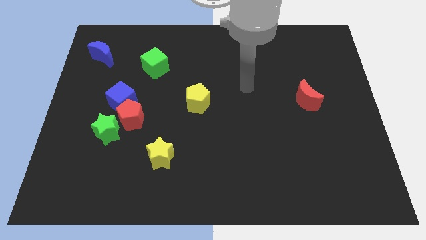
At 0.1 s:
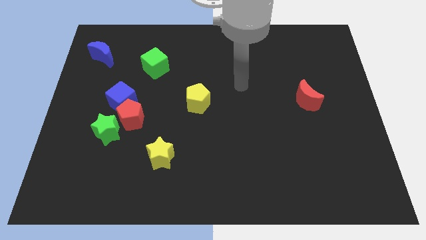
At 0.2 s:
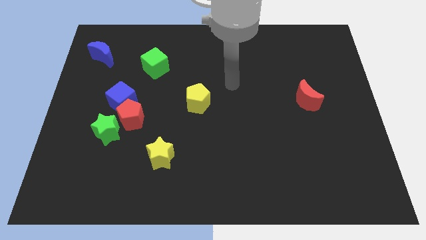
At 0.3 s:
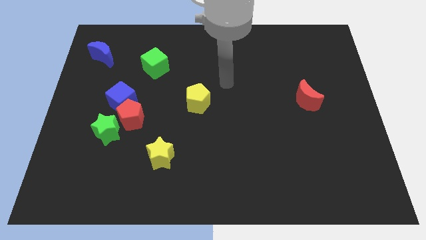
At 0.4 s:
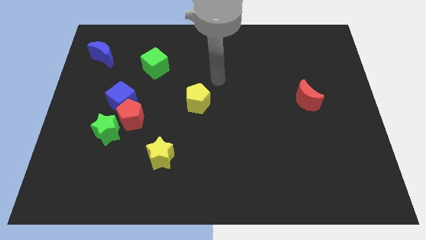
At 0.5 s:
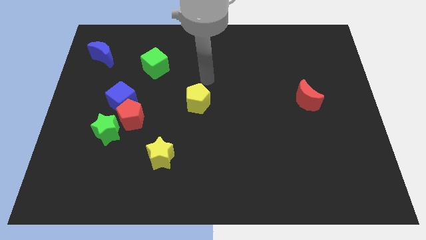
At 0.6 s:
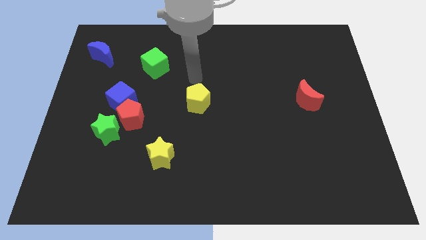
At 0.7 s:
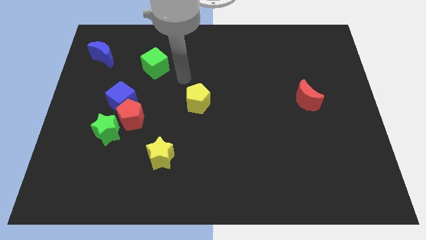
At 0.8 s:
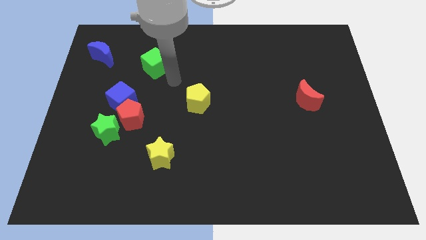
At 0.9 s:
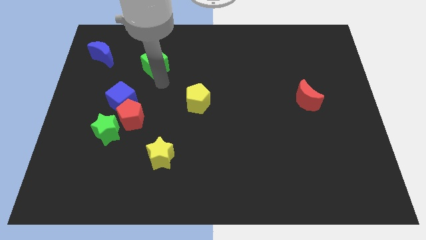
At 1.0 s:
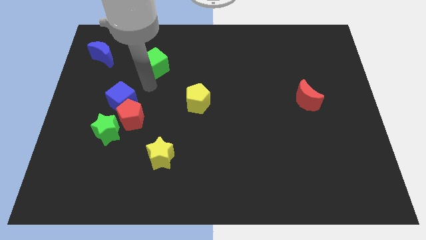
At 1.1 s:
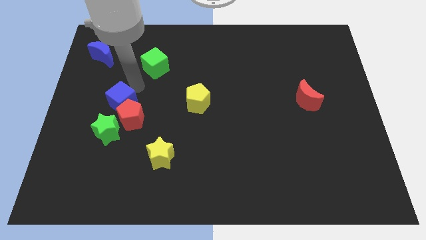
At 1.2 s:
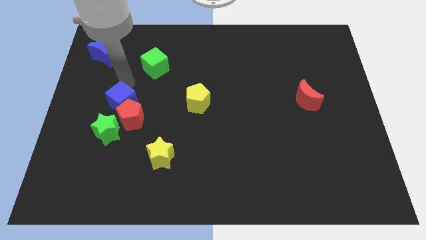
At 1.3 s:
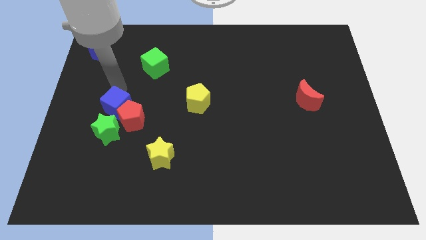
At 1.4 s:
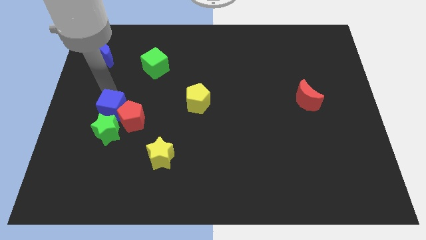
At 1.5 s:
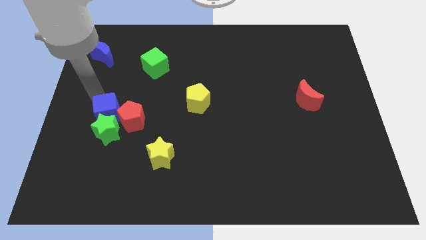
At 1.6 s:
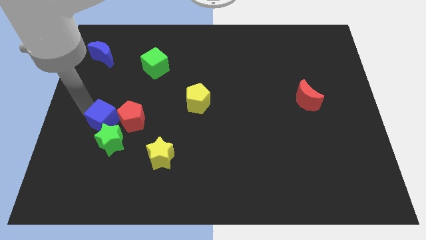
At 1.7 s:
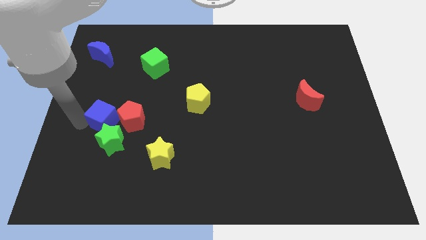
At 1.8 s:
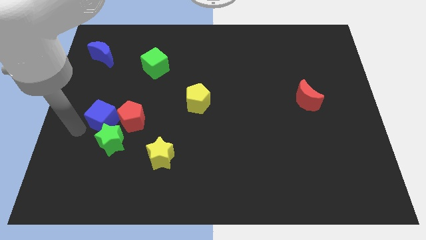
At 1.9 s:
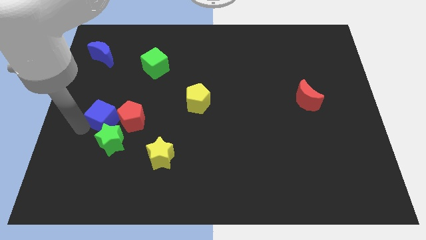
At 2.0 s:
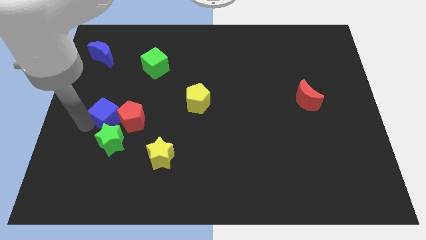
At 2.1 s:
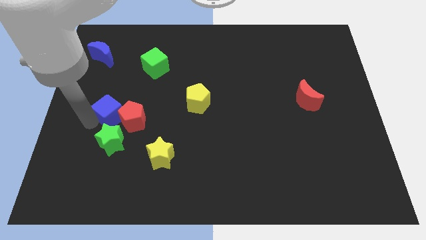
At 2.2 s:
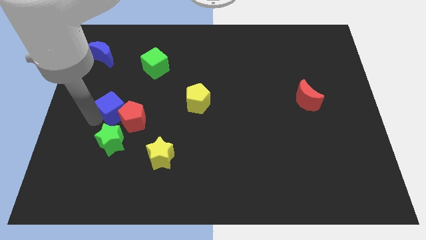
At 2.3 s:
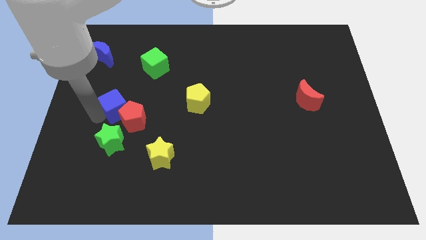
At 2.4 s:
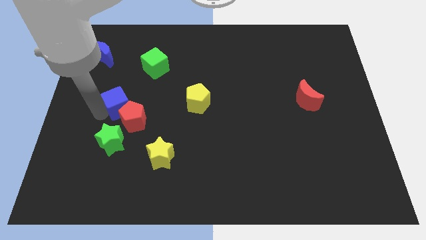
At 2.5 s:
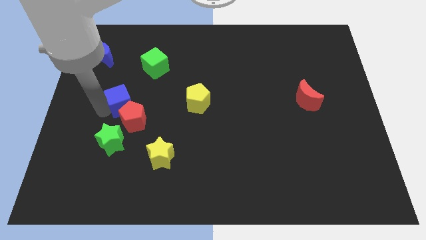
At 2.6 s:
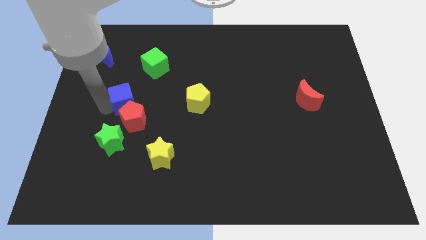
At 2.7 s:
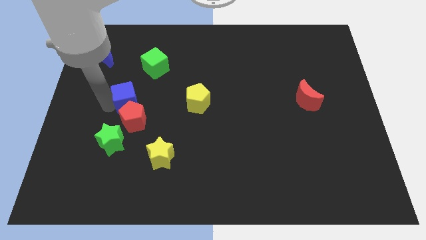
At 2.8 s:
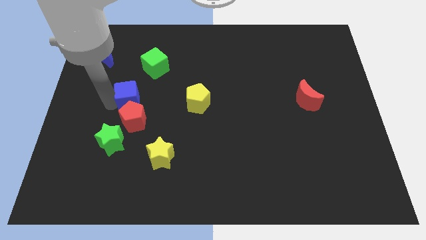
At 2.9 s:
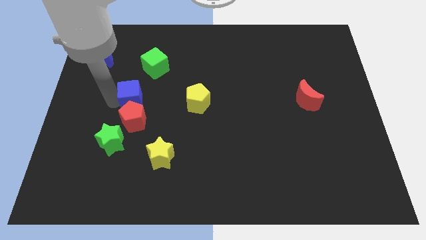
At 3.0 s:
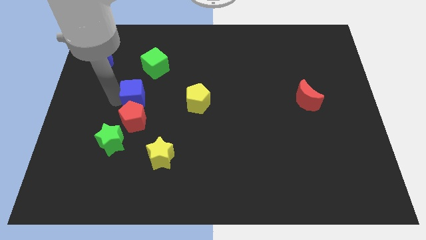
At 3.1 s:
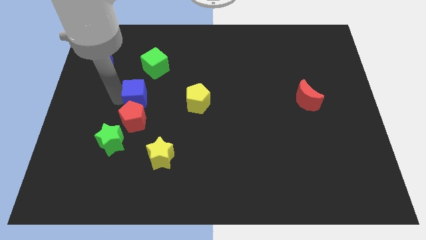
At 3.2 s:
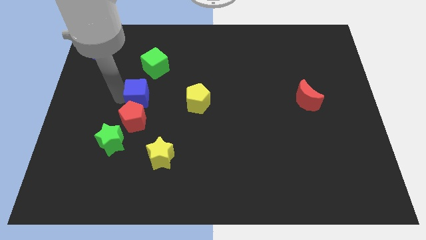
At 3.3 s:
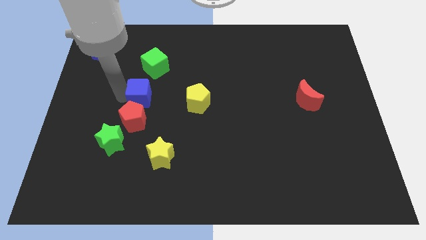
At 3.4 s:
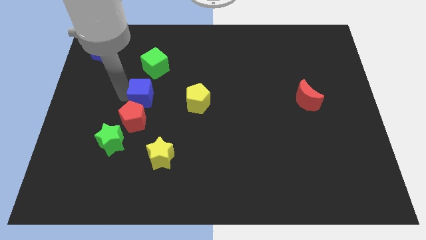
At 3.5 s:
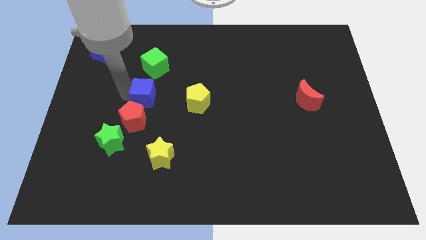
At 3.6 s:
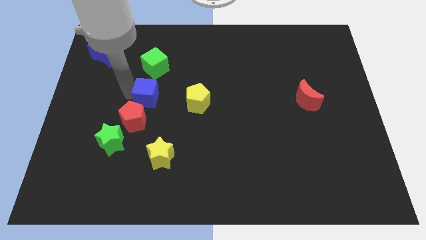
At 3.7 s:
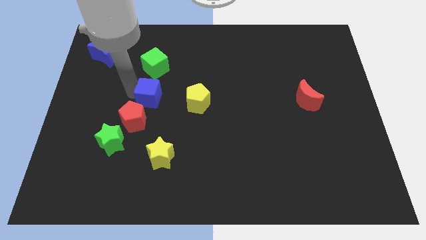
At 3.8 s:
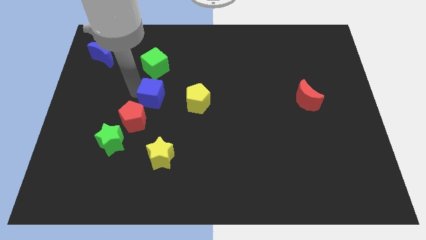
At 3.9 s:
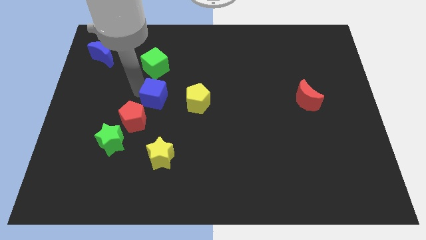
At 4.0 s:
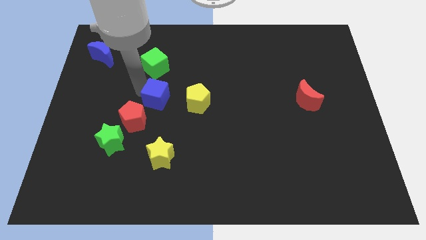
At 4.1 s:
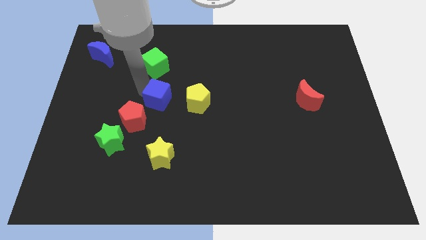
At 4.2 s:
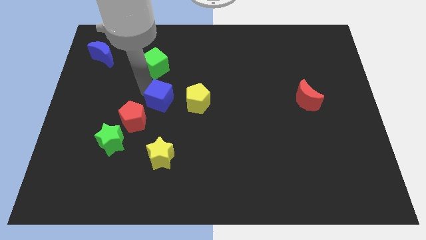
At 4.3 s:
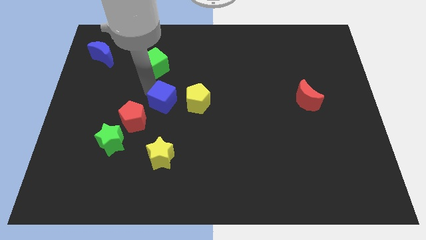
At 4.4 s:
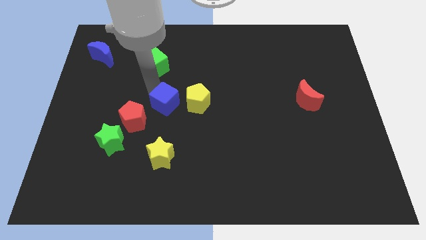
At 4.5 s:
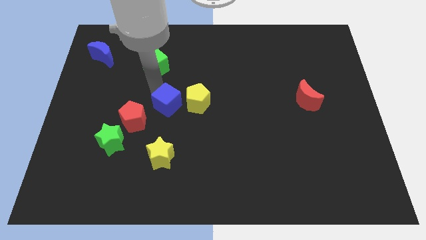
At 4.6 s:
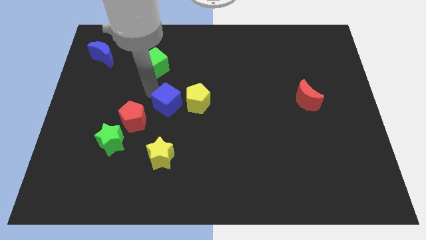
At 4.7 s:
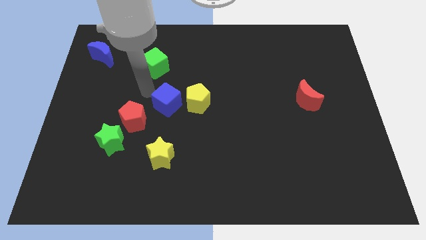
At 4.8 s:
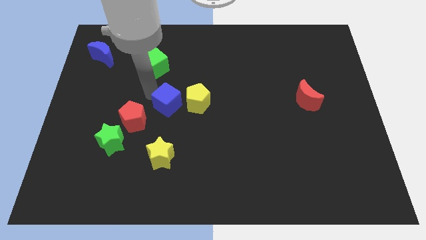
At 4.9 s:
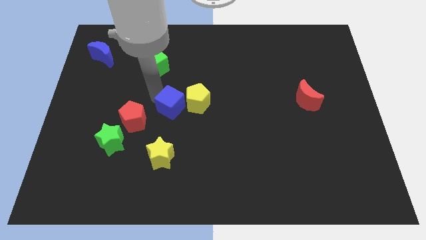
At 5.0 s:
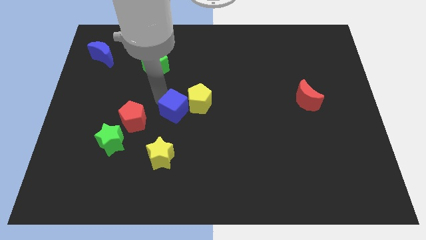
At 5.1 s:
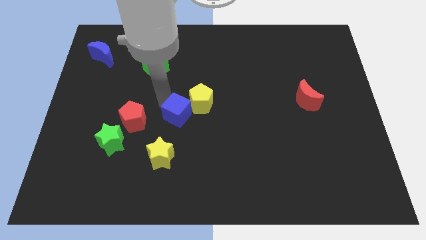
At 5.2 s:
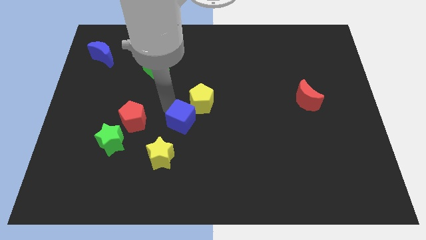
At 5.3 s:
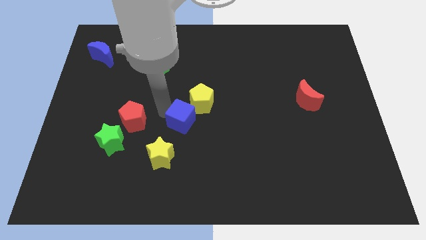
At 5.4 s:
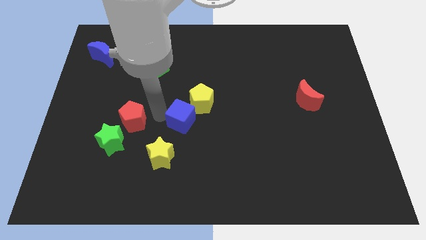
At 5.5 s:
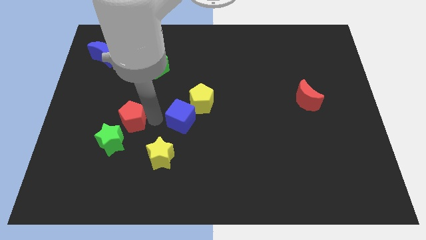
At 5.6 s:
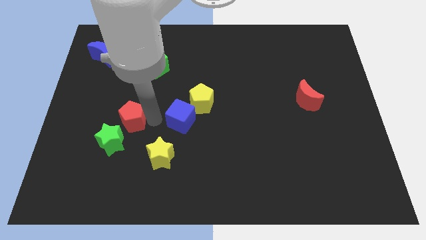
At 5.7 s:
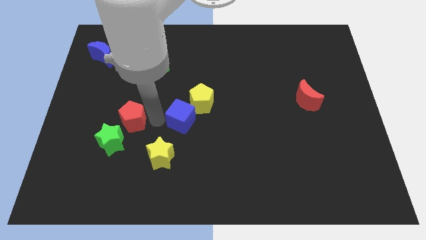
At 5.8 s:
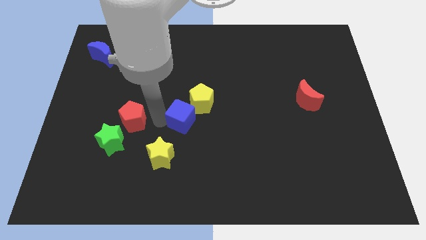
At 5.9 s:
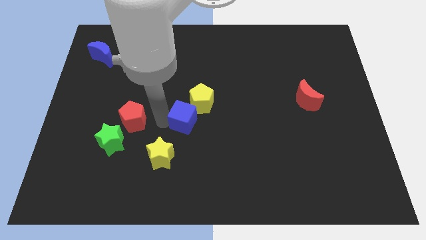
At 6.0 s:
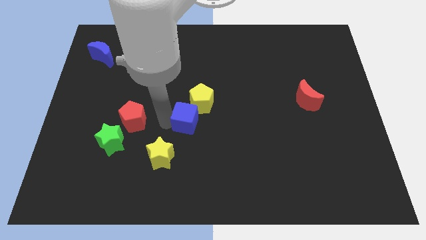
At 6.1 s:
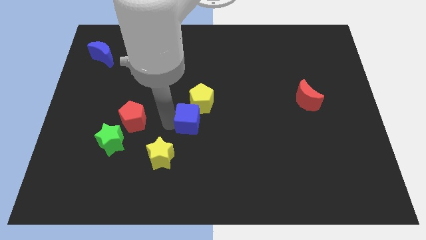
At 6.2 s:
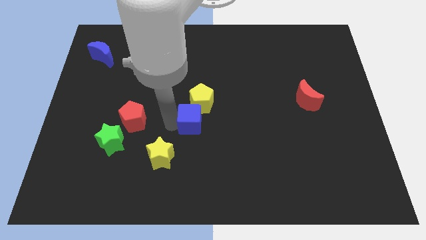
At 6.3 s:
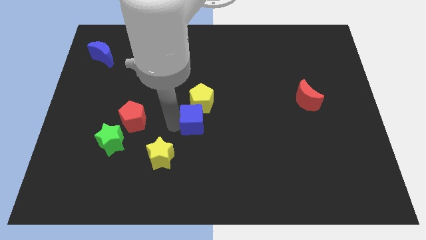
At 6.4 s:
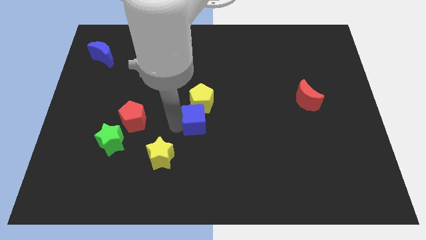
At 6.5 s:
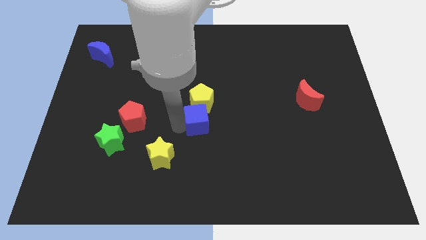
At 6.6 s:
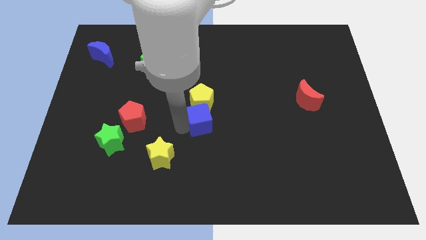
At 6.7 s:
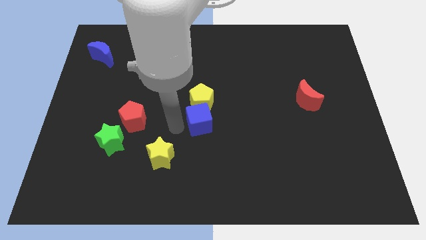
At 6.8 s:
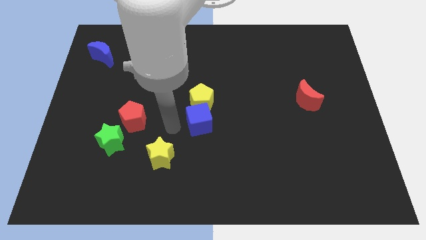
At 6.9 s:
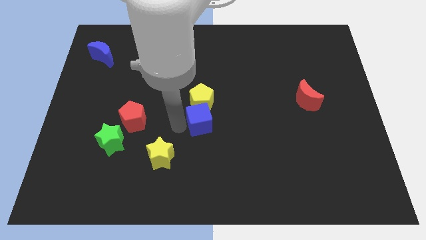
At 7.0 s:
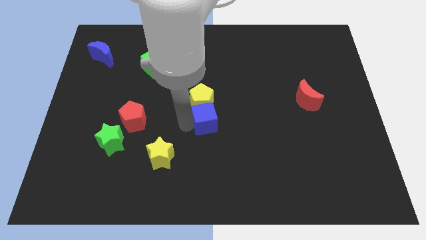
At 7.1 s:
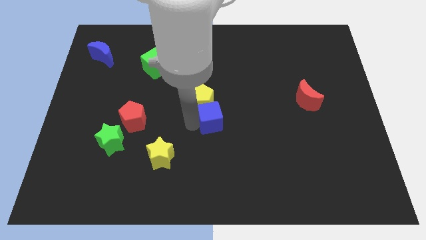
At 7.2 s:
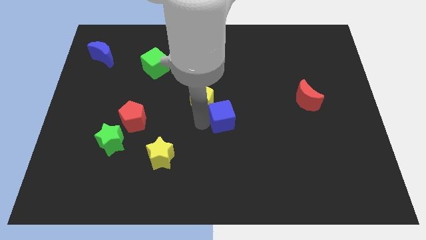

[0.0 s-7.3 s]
push the blue cube to the right

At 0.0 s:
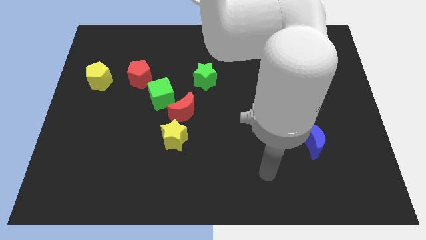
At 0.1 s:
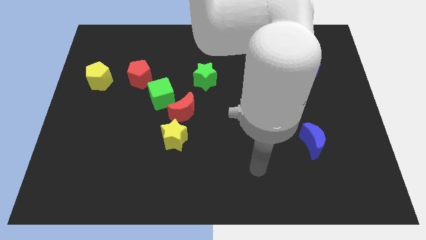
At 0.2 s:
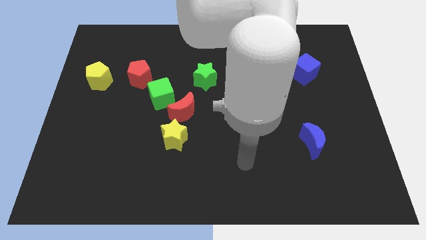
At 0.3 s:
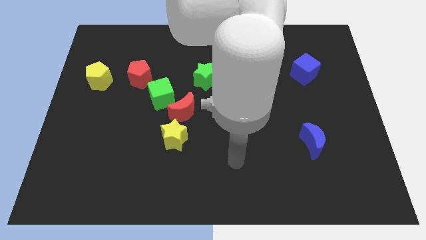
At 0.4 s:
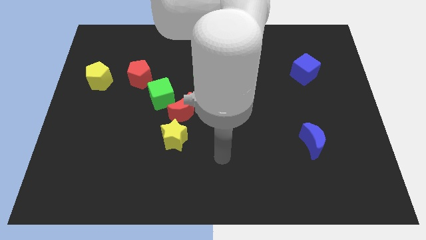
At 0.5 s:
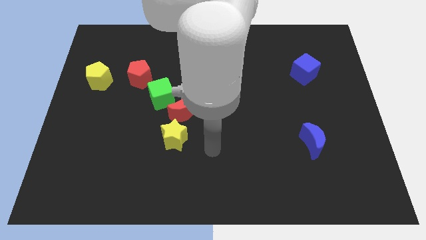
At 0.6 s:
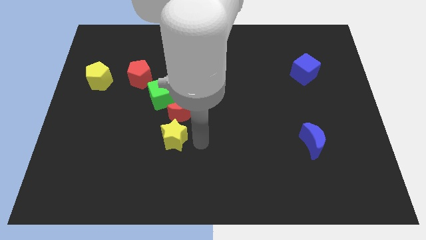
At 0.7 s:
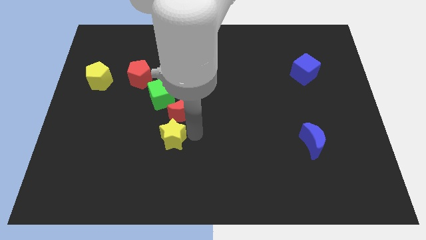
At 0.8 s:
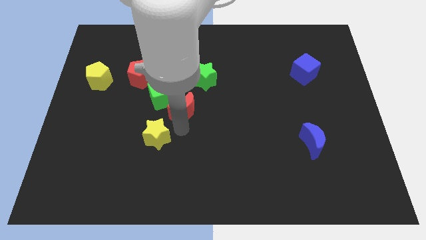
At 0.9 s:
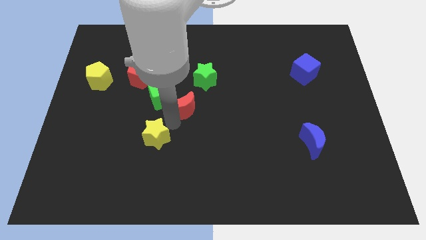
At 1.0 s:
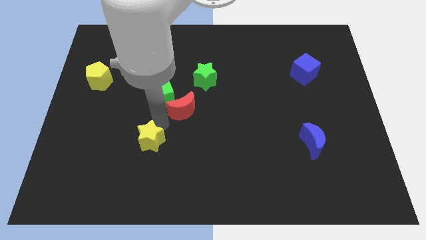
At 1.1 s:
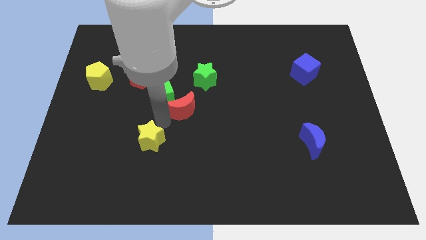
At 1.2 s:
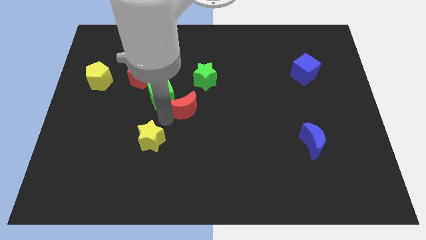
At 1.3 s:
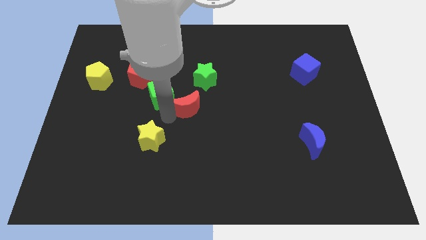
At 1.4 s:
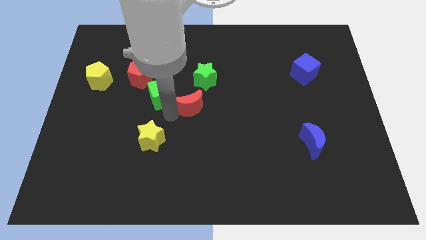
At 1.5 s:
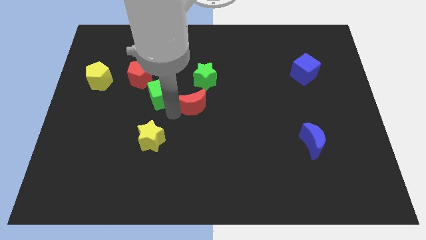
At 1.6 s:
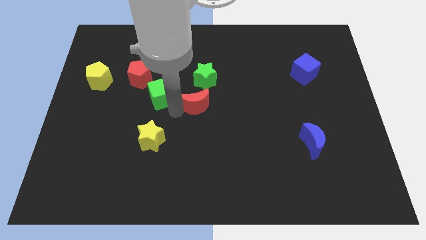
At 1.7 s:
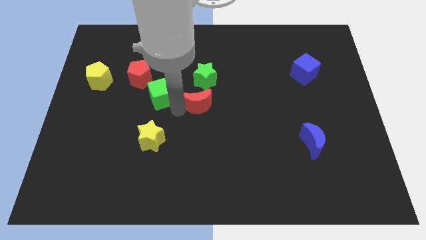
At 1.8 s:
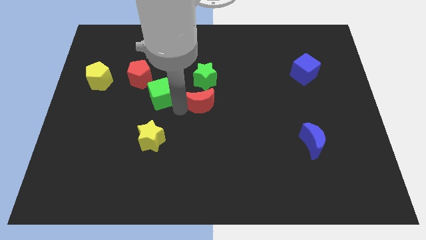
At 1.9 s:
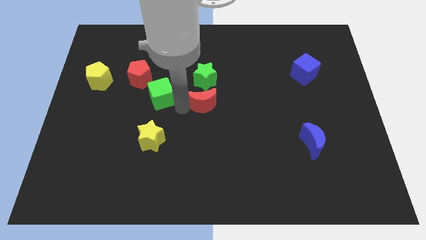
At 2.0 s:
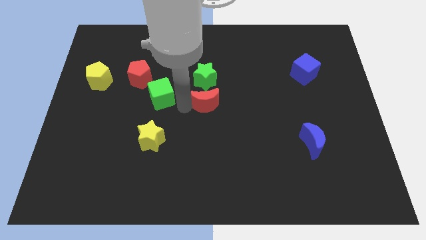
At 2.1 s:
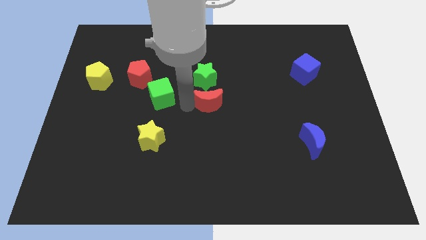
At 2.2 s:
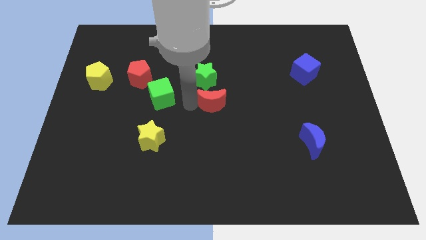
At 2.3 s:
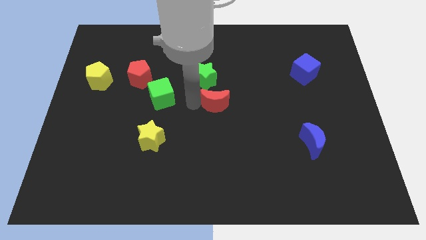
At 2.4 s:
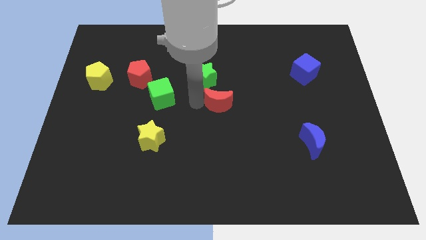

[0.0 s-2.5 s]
slide the red moon upwards and to the right a little bit
